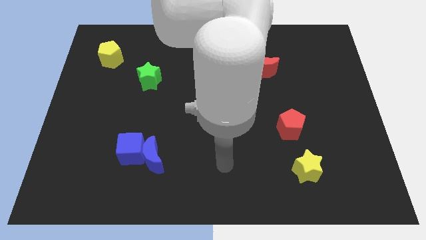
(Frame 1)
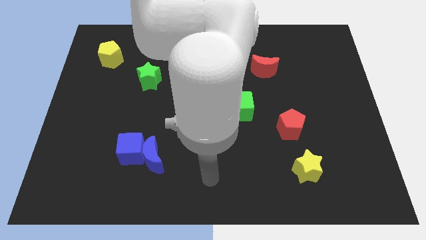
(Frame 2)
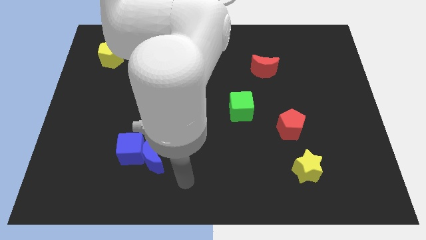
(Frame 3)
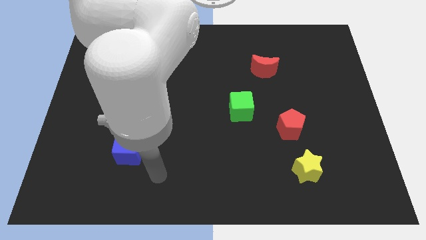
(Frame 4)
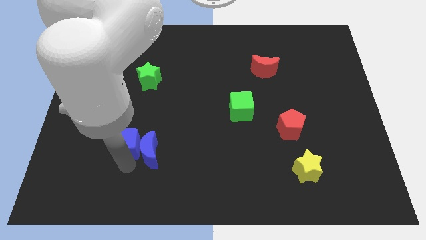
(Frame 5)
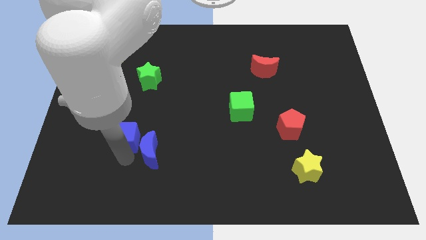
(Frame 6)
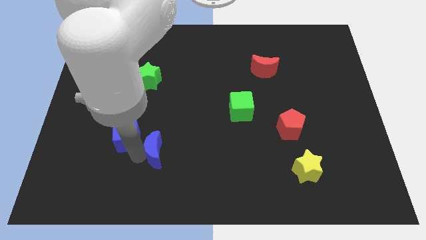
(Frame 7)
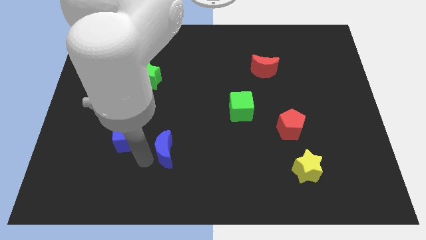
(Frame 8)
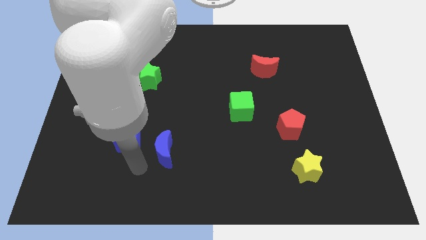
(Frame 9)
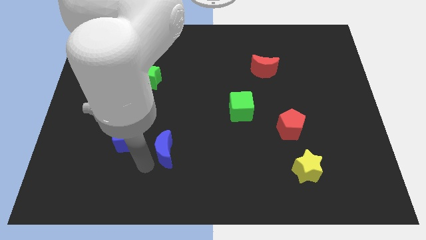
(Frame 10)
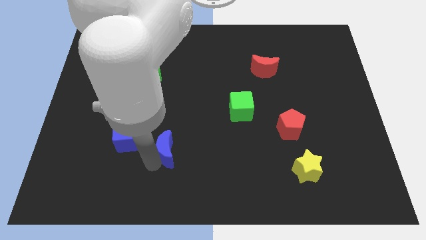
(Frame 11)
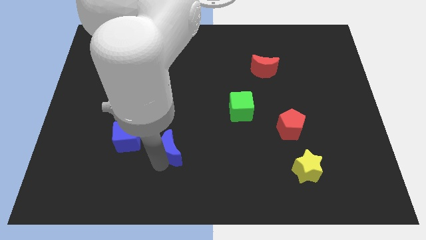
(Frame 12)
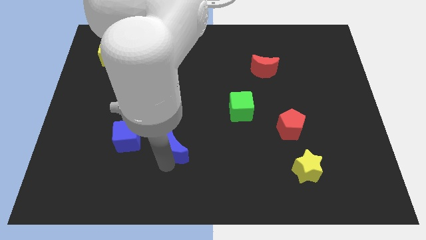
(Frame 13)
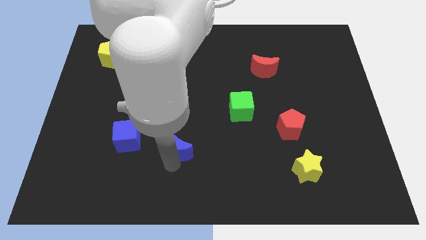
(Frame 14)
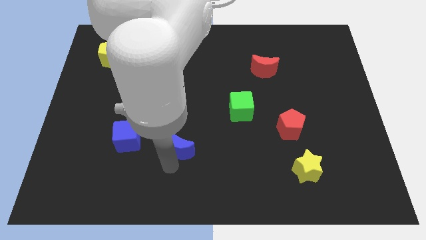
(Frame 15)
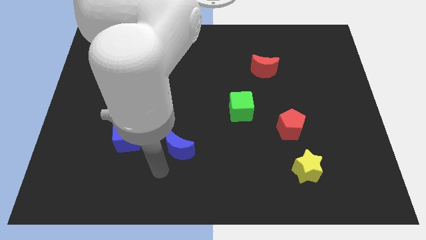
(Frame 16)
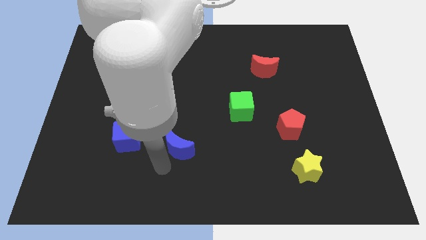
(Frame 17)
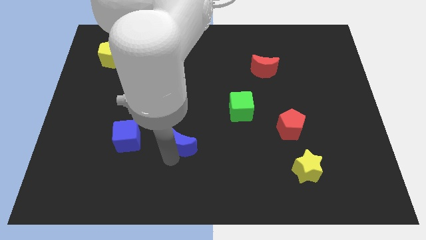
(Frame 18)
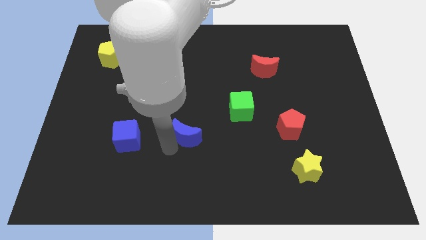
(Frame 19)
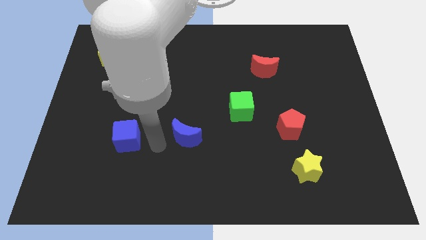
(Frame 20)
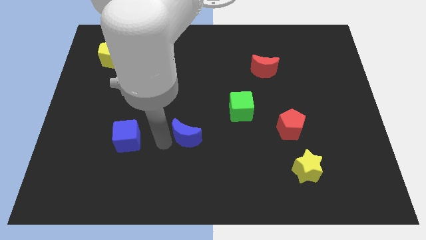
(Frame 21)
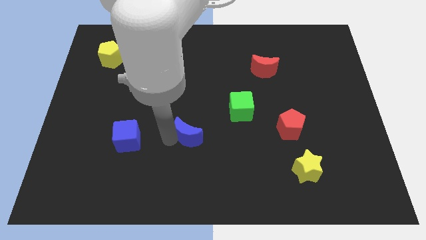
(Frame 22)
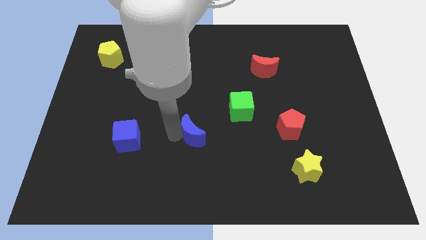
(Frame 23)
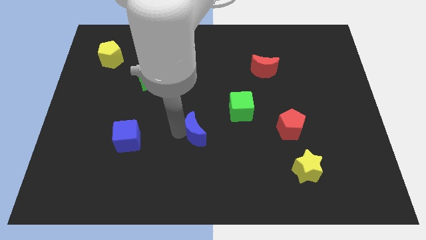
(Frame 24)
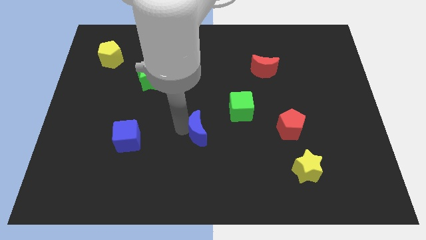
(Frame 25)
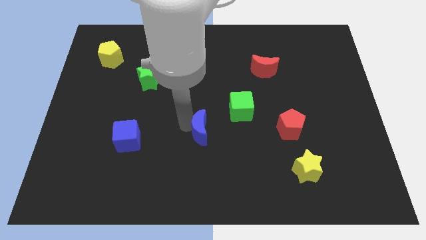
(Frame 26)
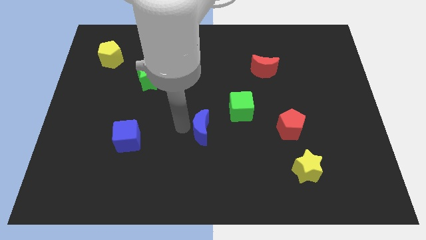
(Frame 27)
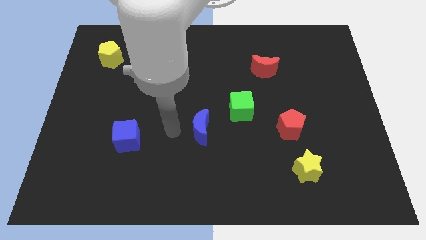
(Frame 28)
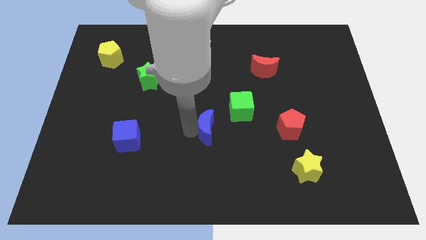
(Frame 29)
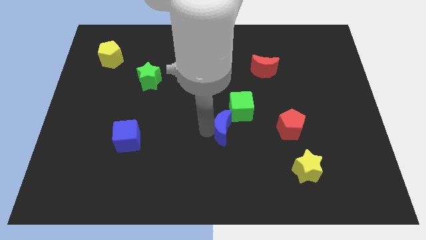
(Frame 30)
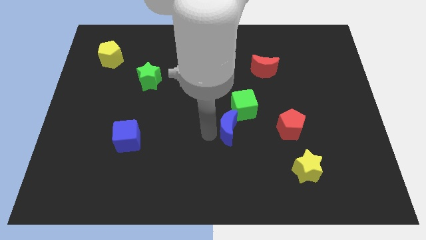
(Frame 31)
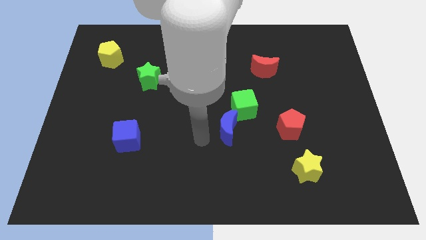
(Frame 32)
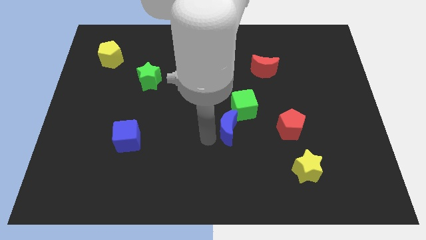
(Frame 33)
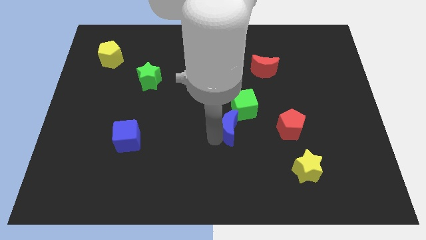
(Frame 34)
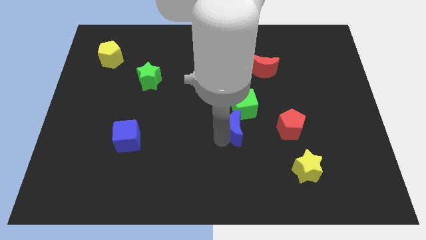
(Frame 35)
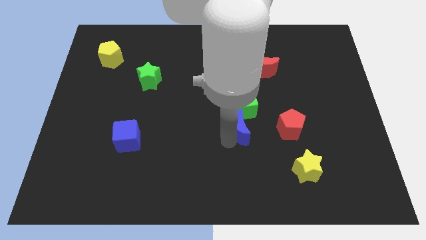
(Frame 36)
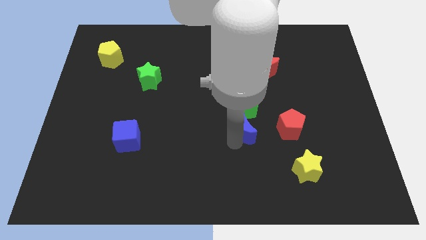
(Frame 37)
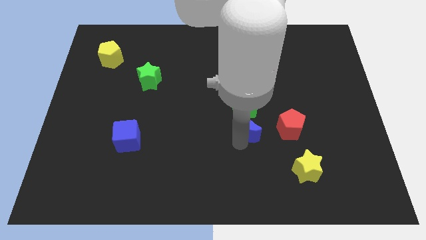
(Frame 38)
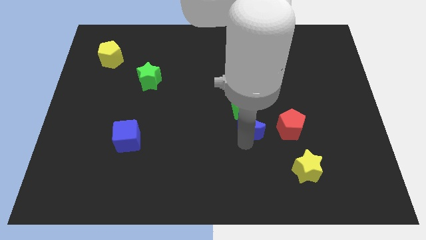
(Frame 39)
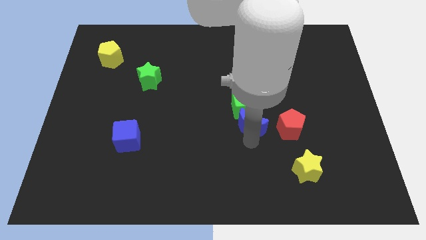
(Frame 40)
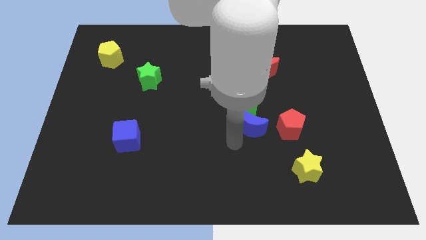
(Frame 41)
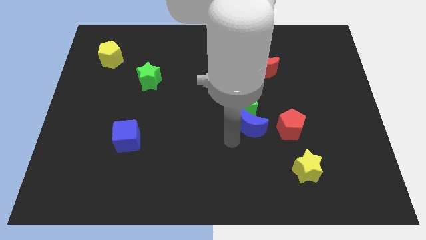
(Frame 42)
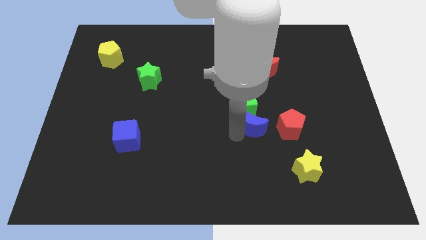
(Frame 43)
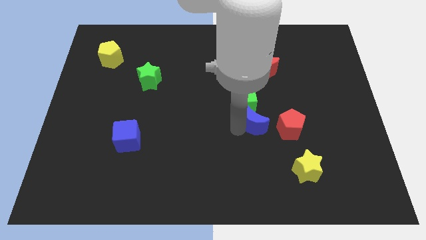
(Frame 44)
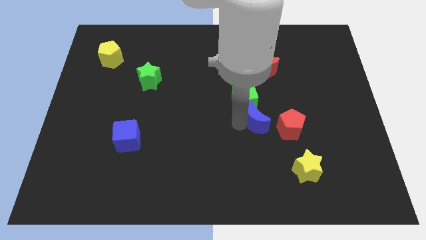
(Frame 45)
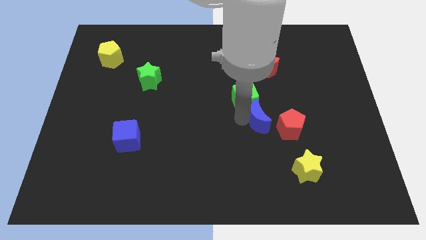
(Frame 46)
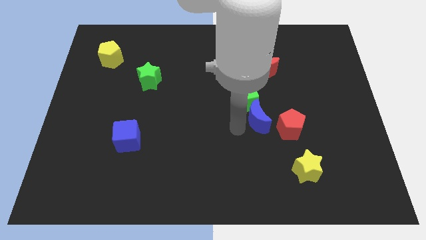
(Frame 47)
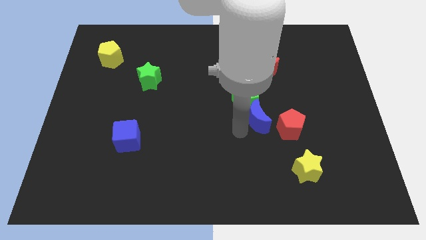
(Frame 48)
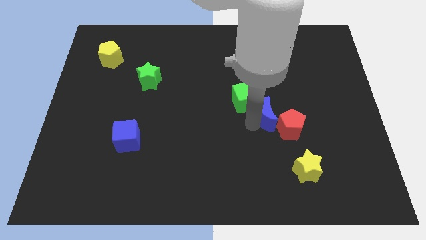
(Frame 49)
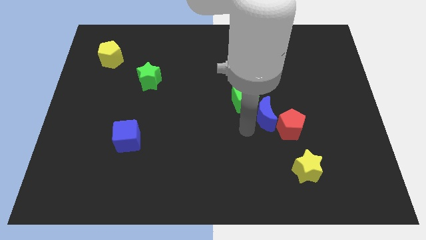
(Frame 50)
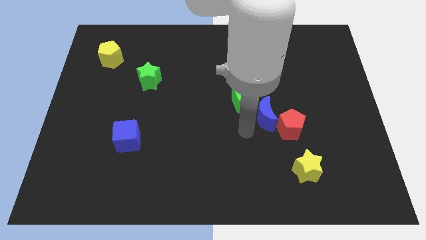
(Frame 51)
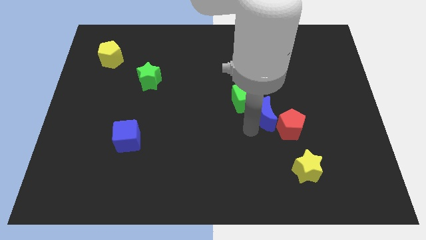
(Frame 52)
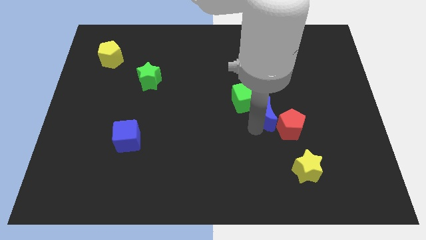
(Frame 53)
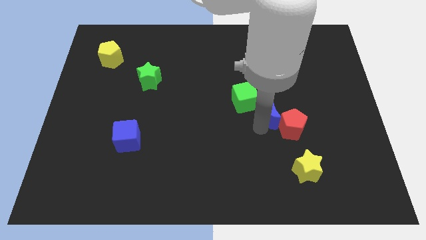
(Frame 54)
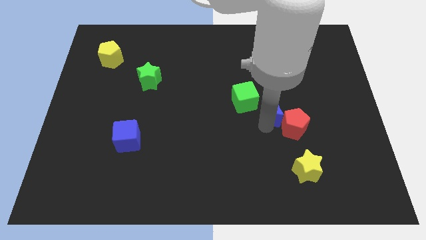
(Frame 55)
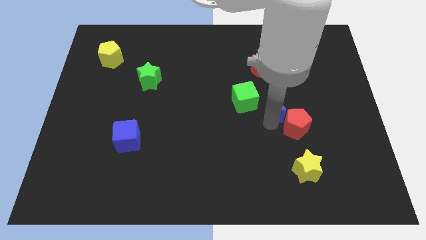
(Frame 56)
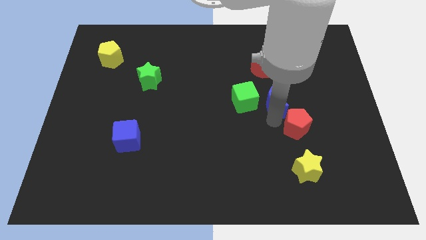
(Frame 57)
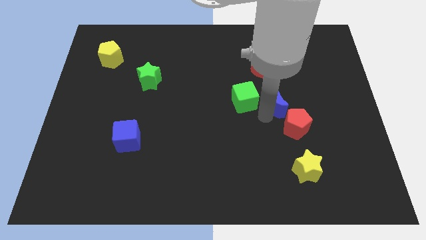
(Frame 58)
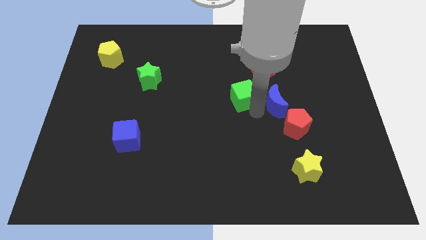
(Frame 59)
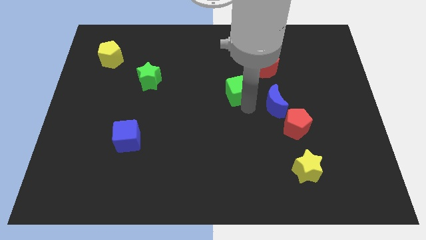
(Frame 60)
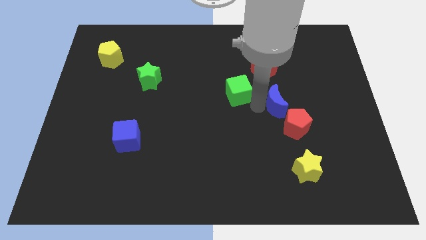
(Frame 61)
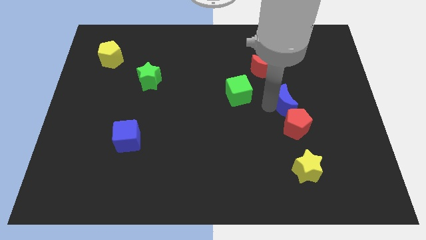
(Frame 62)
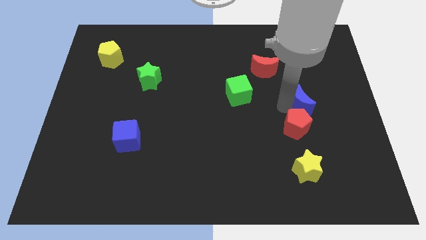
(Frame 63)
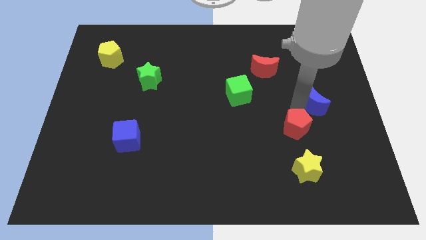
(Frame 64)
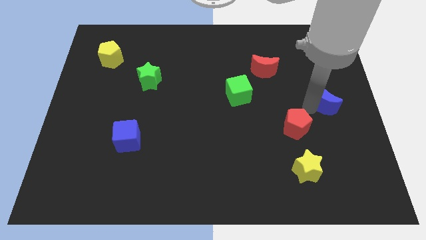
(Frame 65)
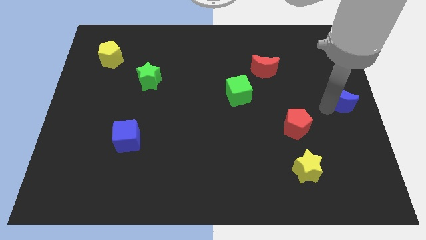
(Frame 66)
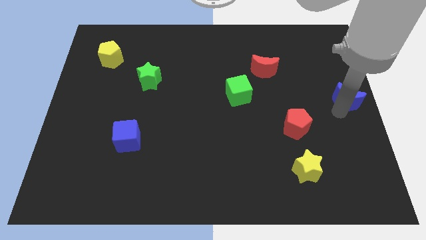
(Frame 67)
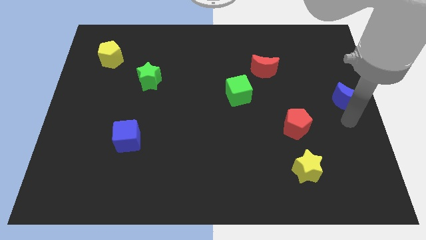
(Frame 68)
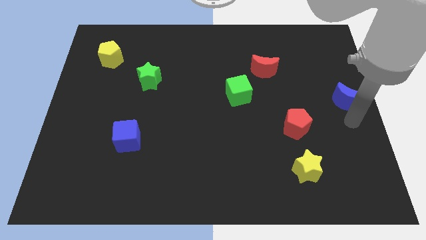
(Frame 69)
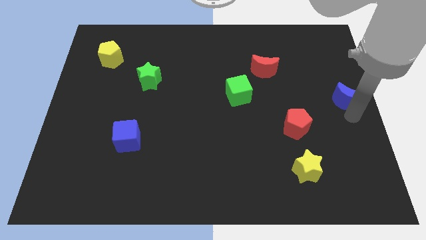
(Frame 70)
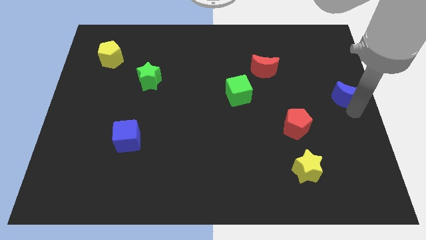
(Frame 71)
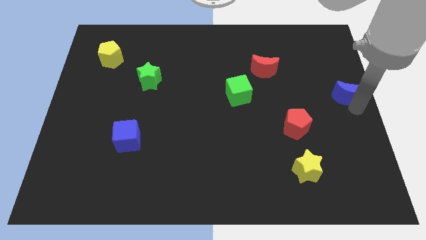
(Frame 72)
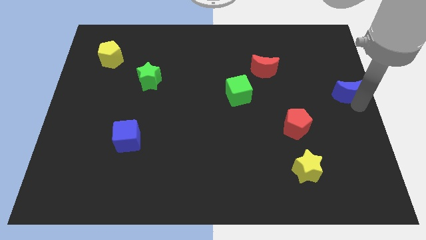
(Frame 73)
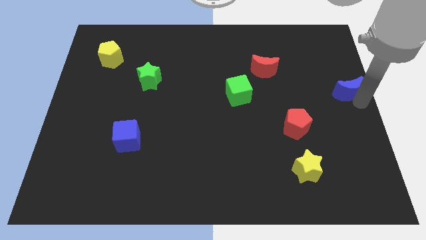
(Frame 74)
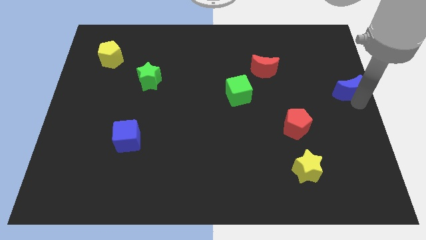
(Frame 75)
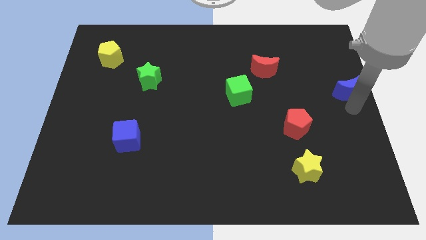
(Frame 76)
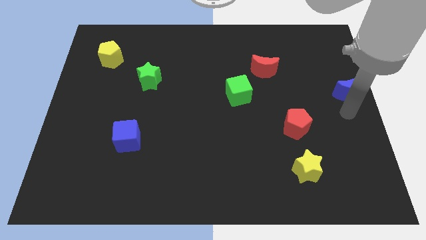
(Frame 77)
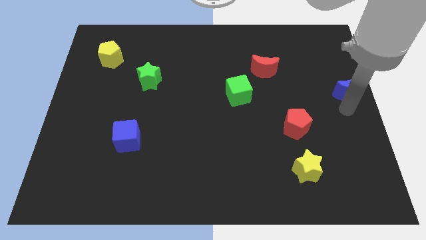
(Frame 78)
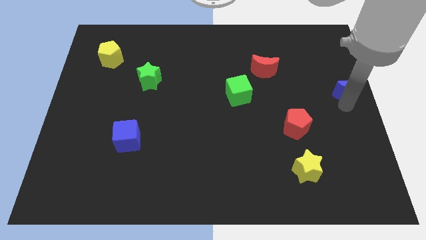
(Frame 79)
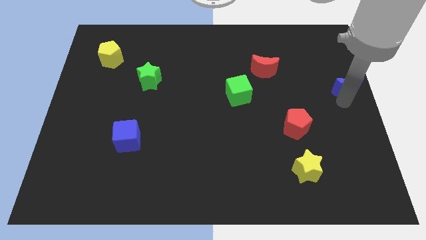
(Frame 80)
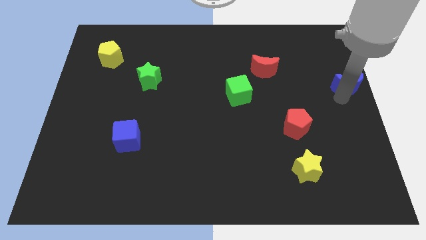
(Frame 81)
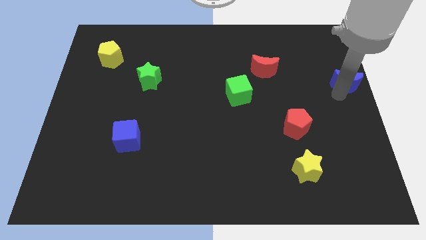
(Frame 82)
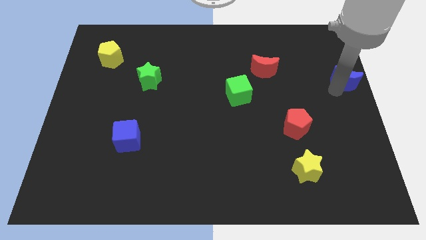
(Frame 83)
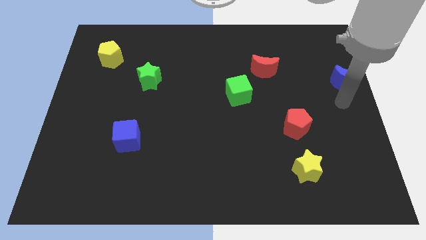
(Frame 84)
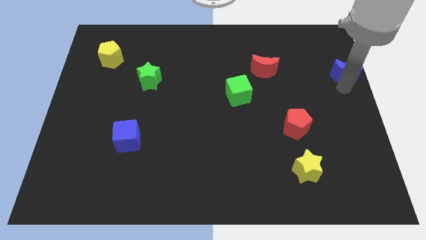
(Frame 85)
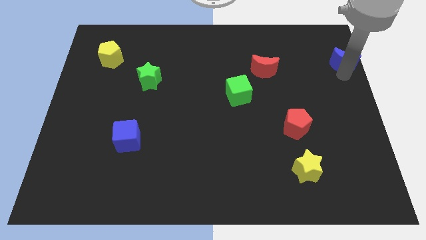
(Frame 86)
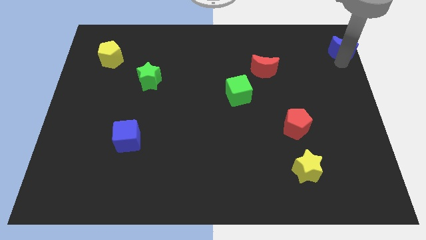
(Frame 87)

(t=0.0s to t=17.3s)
put the blue moon to the top right corner
